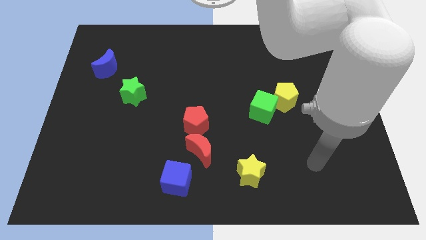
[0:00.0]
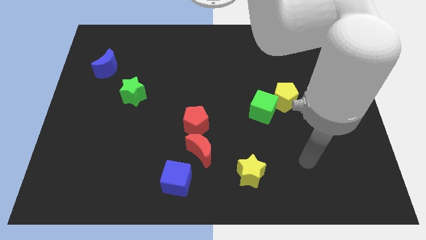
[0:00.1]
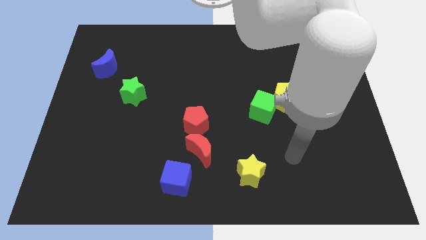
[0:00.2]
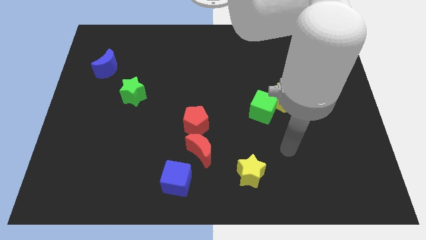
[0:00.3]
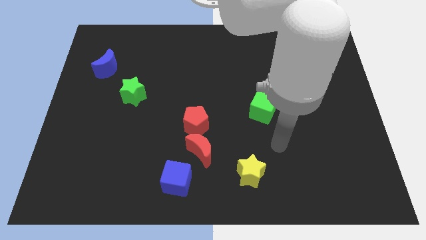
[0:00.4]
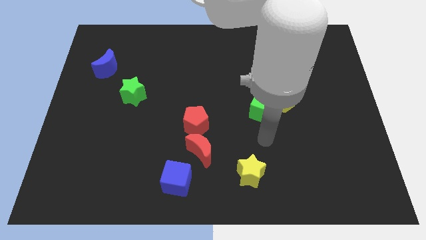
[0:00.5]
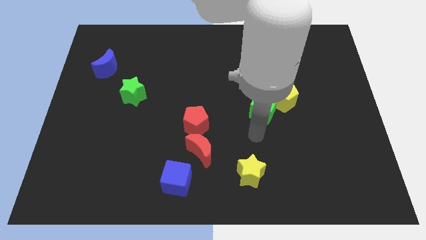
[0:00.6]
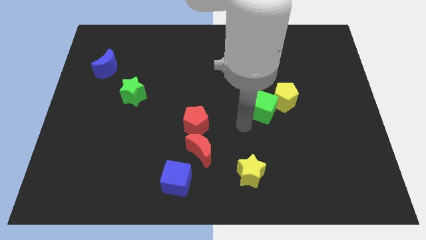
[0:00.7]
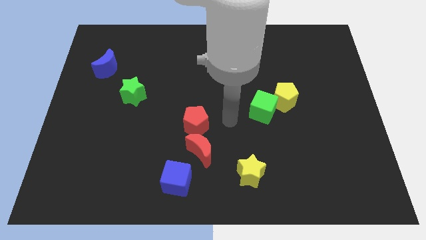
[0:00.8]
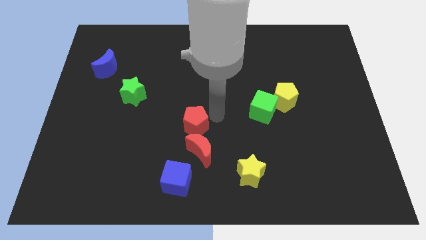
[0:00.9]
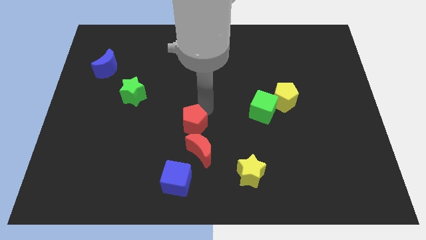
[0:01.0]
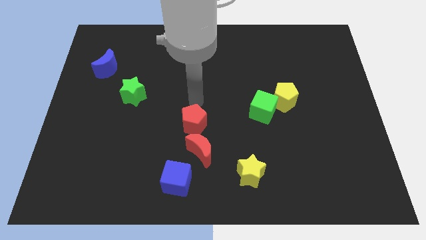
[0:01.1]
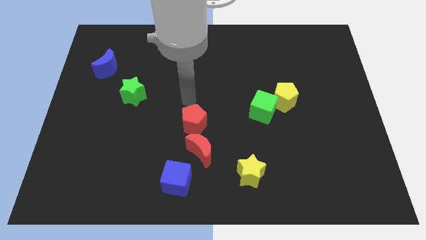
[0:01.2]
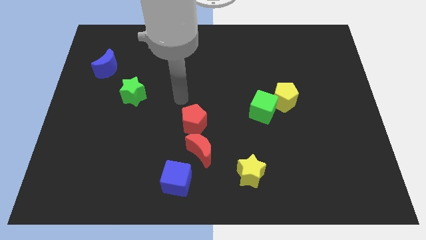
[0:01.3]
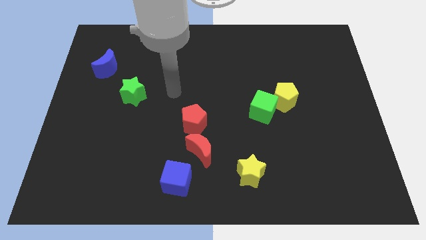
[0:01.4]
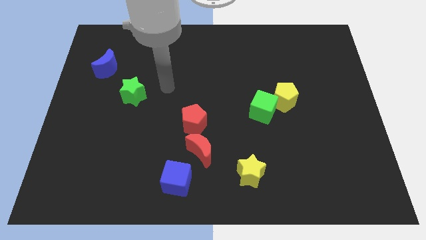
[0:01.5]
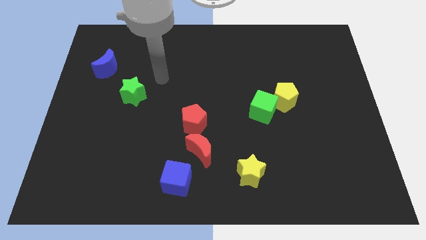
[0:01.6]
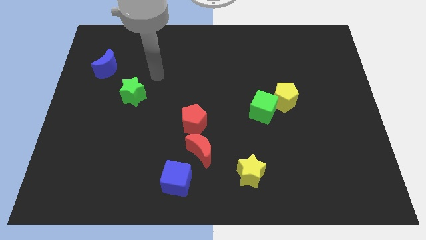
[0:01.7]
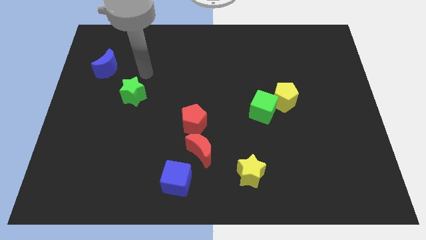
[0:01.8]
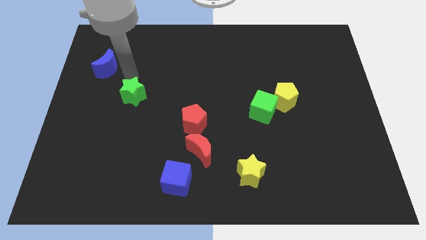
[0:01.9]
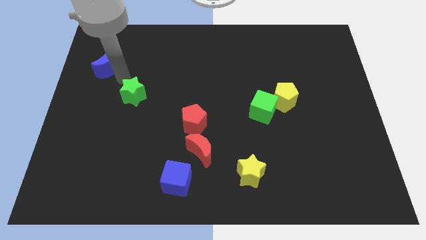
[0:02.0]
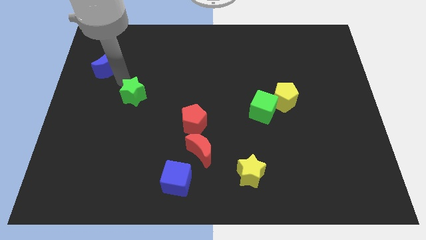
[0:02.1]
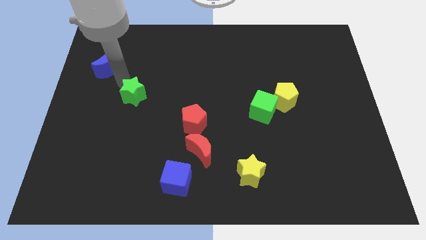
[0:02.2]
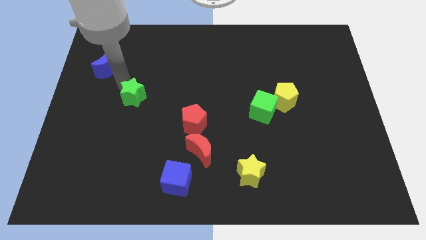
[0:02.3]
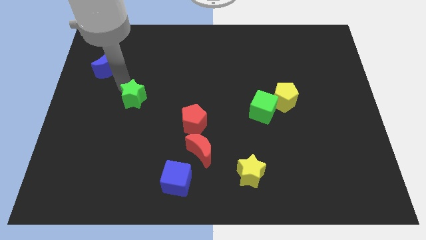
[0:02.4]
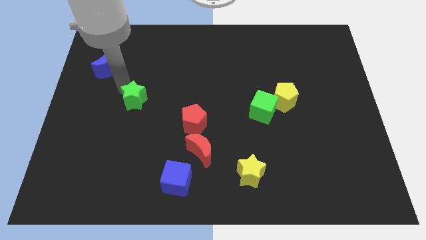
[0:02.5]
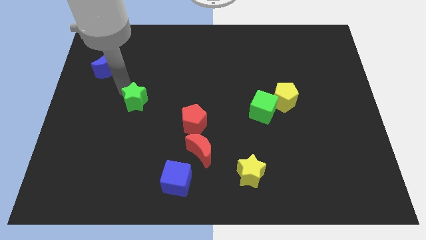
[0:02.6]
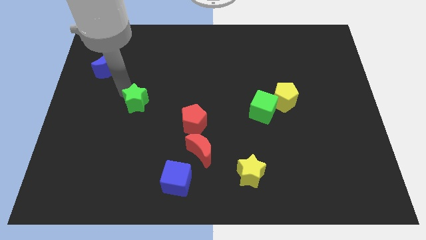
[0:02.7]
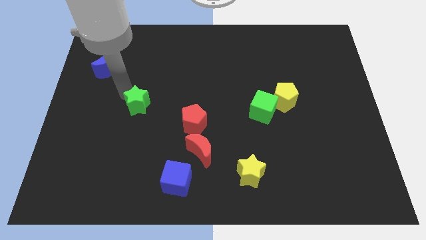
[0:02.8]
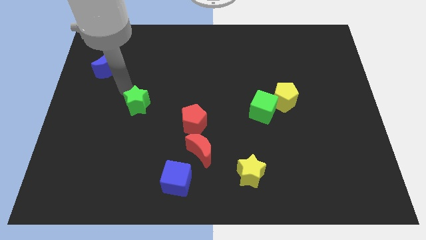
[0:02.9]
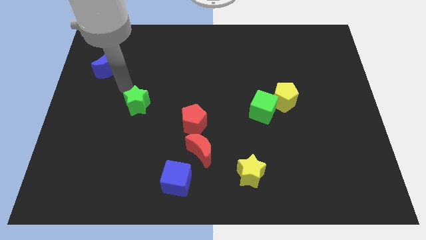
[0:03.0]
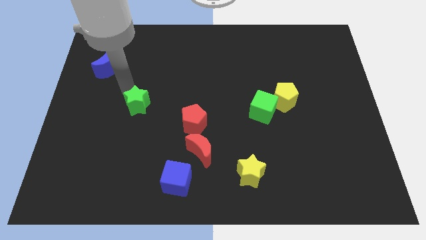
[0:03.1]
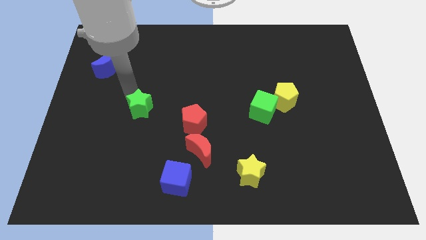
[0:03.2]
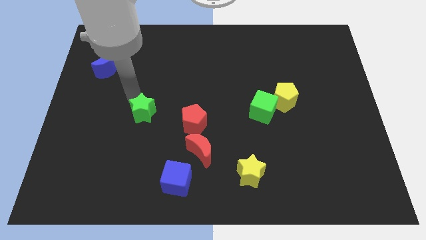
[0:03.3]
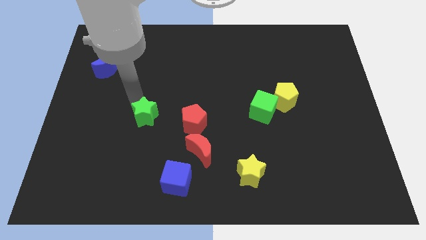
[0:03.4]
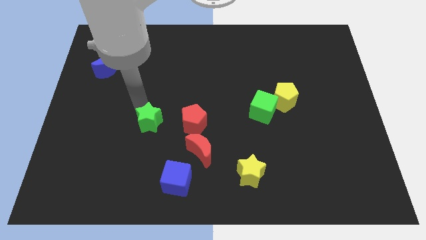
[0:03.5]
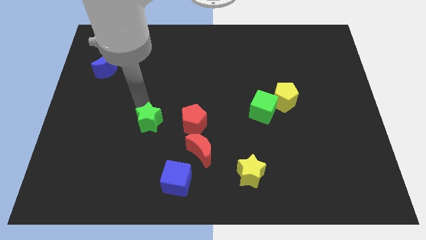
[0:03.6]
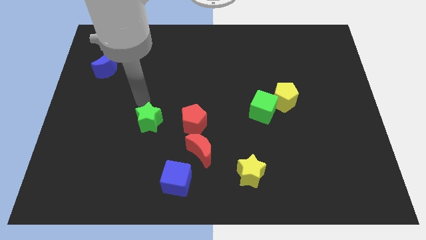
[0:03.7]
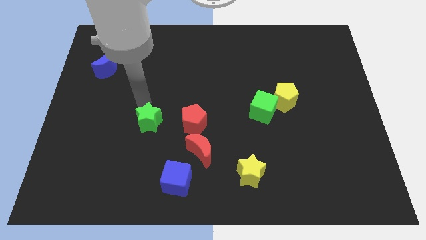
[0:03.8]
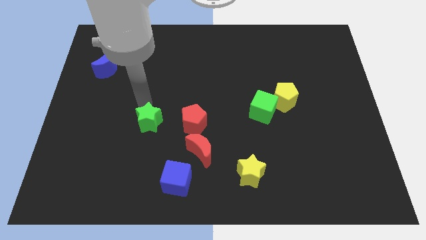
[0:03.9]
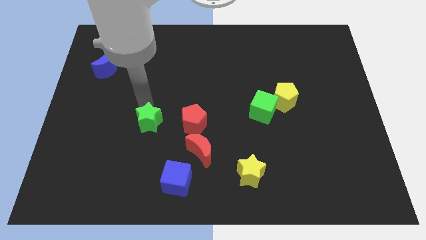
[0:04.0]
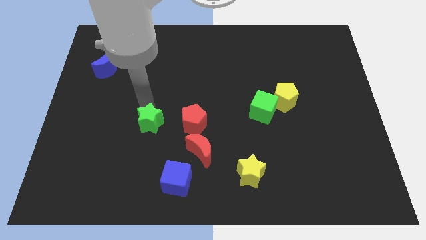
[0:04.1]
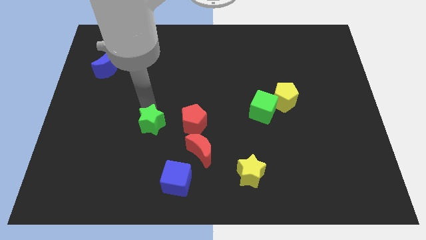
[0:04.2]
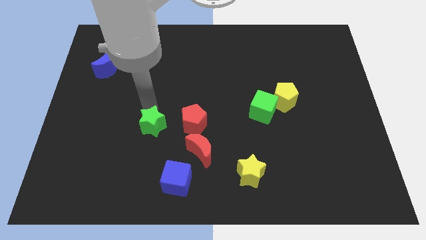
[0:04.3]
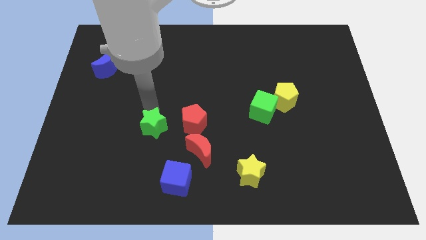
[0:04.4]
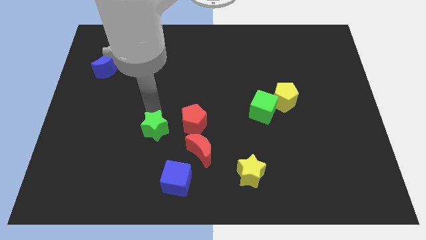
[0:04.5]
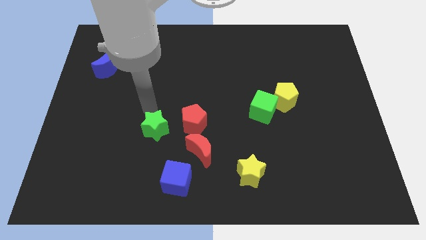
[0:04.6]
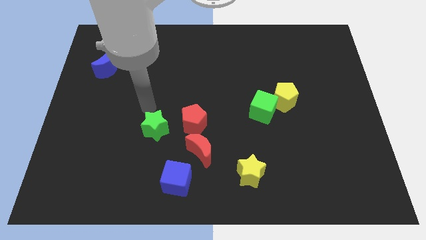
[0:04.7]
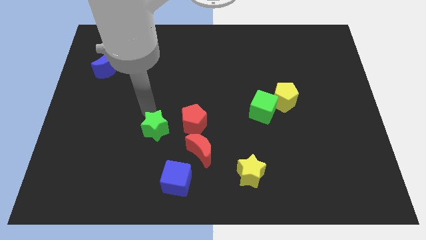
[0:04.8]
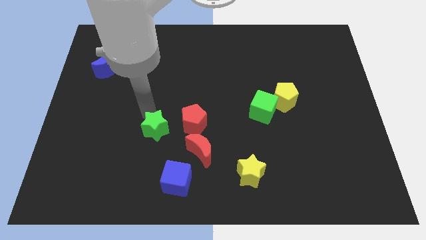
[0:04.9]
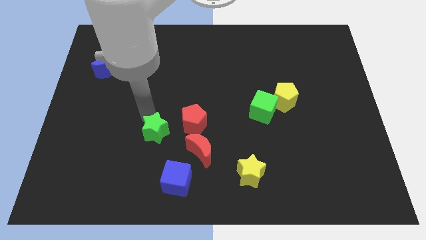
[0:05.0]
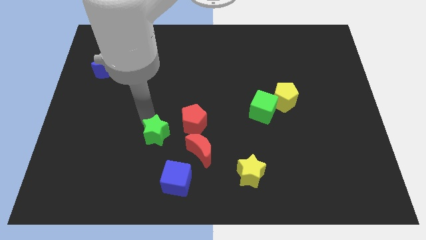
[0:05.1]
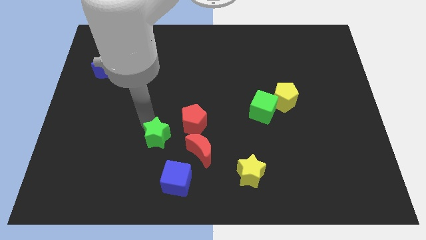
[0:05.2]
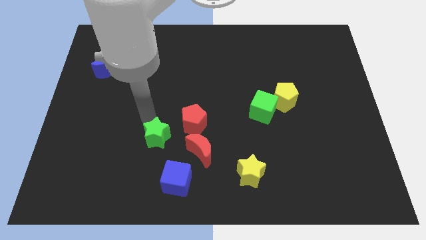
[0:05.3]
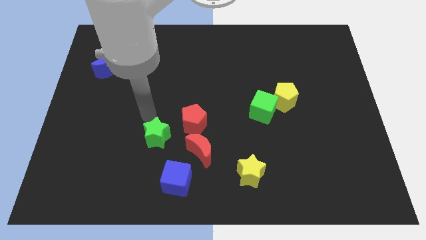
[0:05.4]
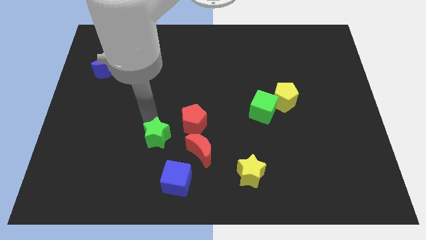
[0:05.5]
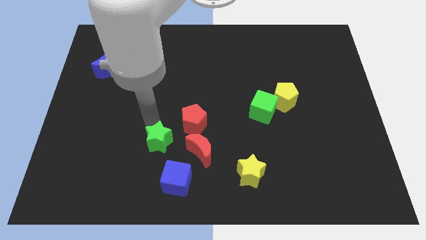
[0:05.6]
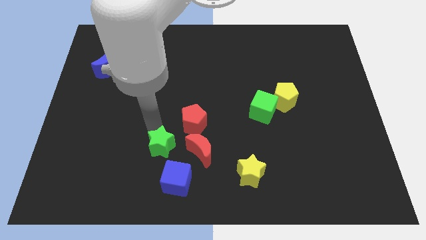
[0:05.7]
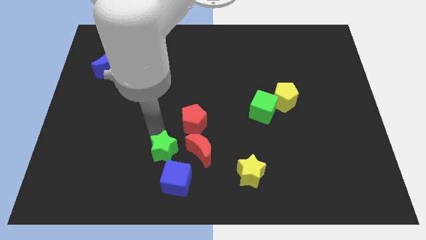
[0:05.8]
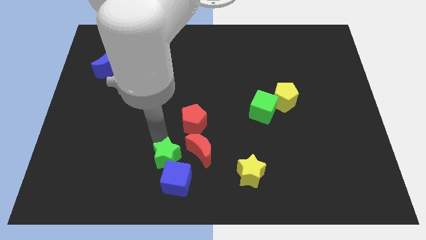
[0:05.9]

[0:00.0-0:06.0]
push the green star to the blue cube
